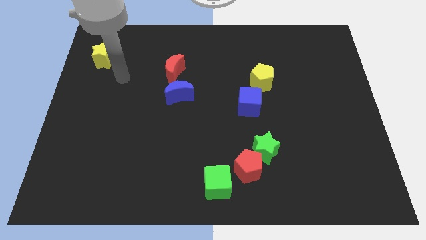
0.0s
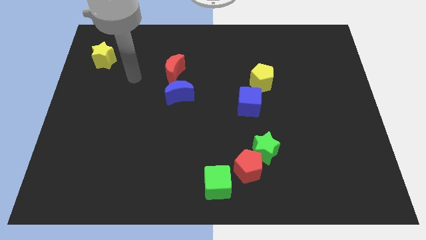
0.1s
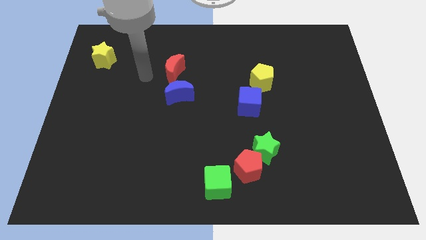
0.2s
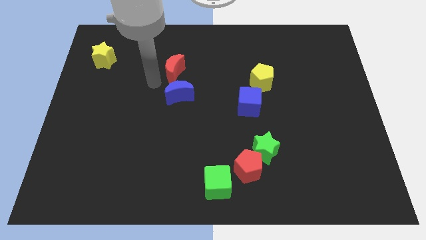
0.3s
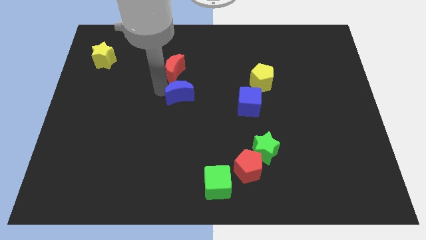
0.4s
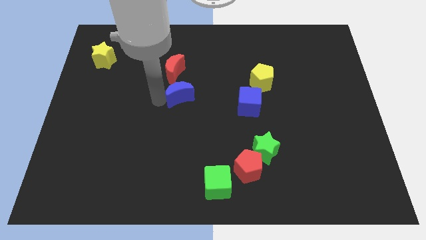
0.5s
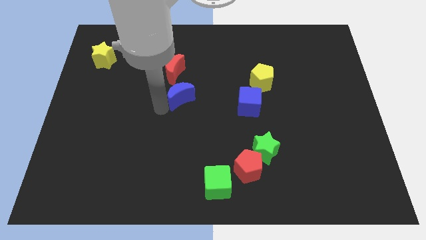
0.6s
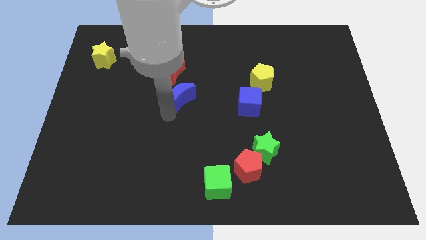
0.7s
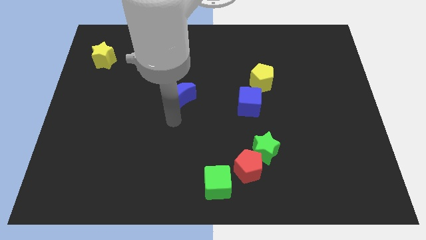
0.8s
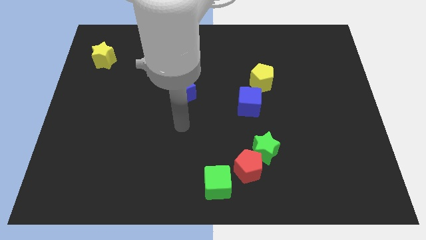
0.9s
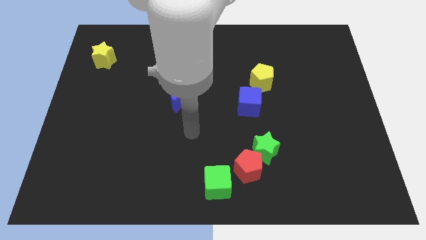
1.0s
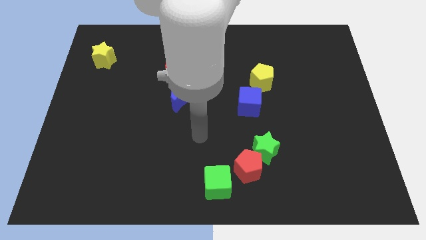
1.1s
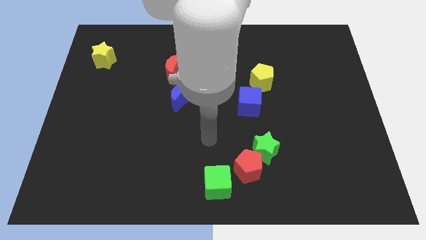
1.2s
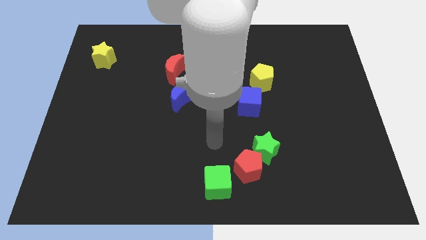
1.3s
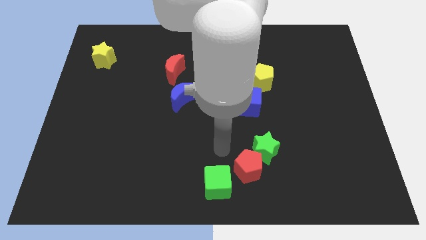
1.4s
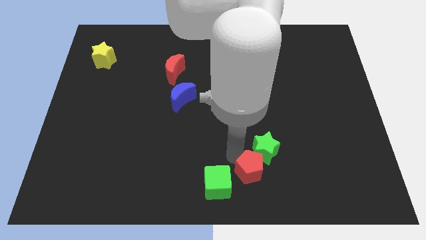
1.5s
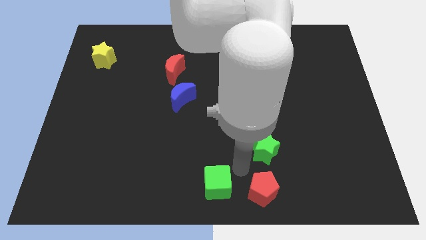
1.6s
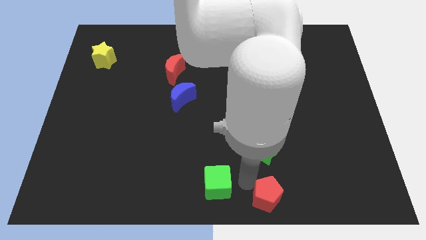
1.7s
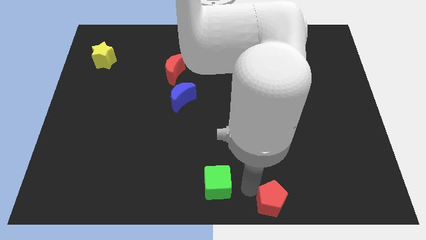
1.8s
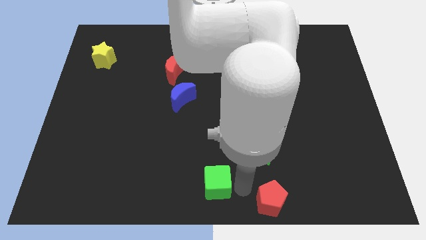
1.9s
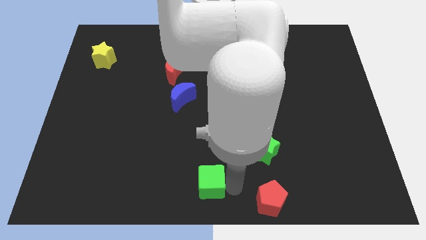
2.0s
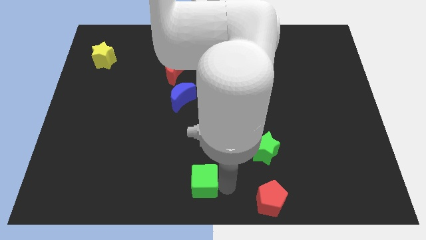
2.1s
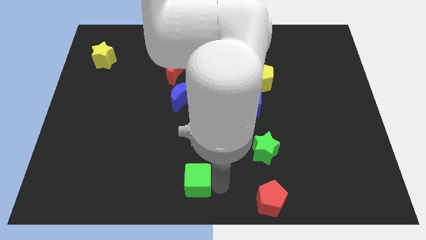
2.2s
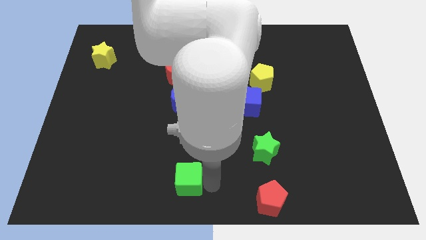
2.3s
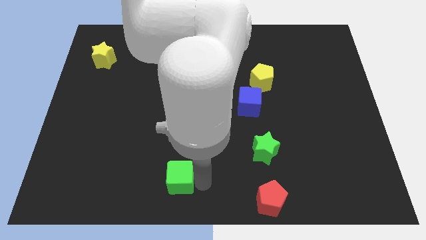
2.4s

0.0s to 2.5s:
slide the green cube somewhat left

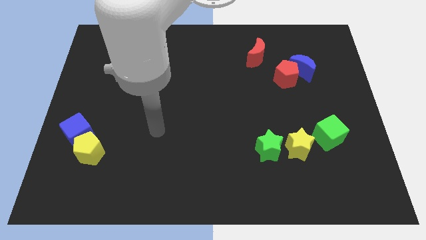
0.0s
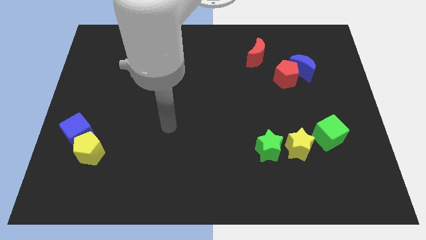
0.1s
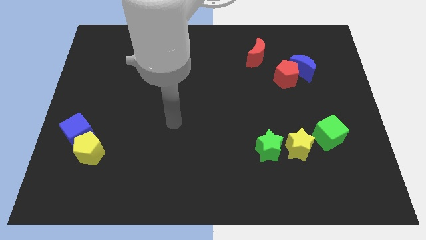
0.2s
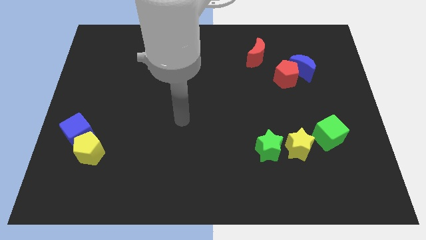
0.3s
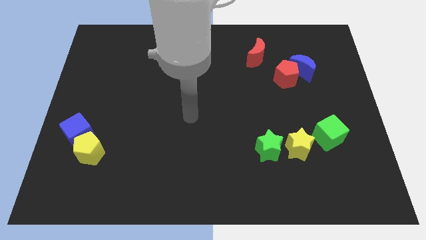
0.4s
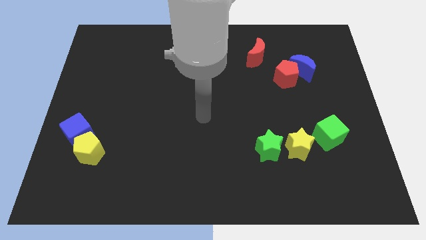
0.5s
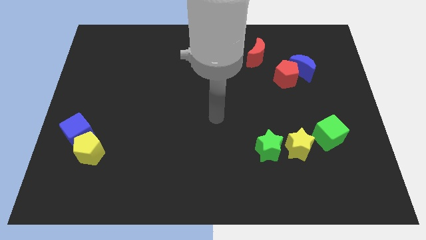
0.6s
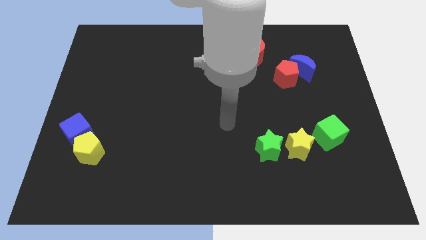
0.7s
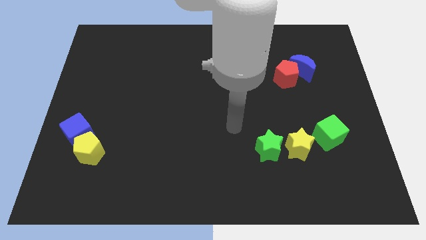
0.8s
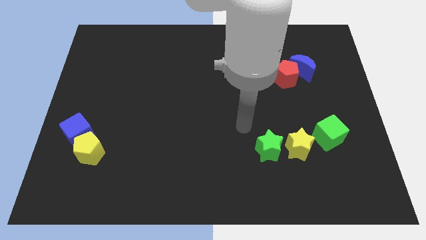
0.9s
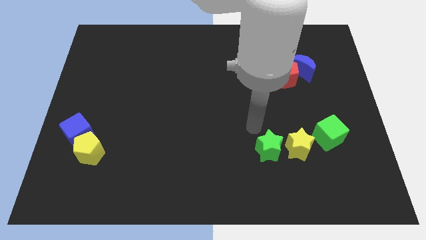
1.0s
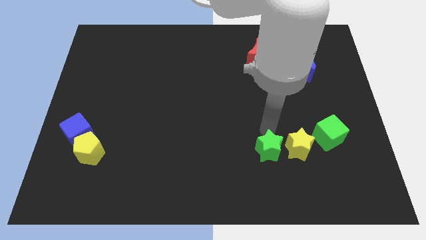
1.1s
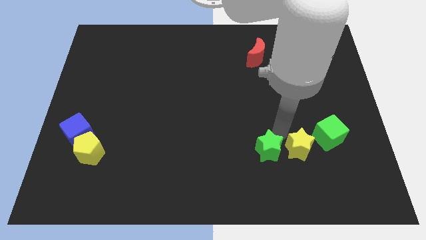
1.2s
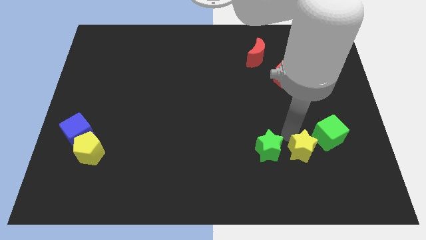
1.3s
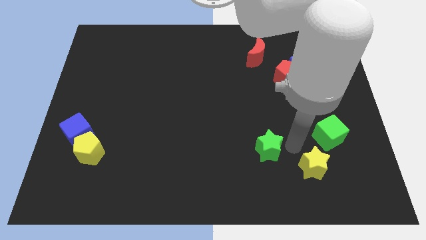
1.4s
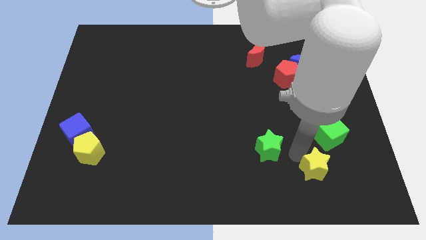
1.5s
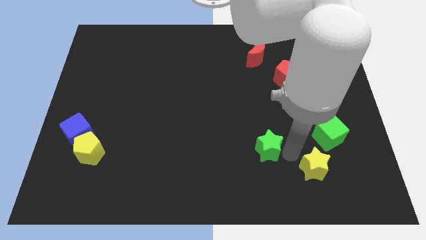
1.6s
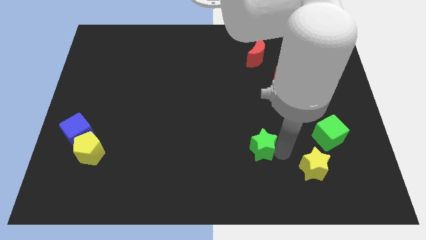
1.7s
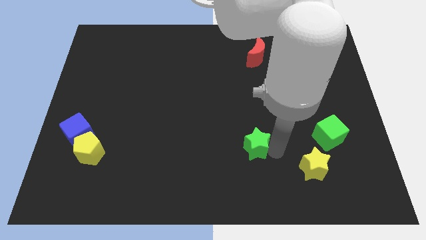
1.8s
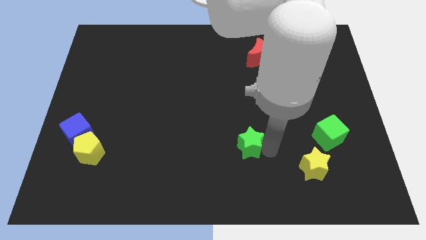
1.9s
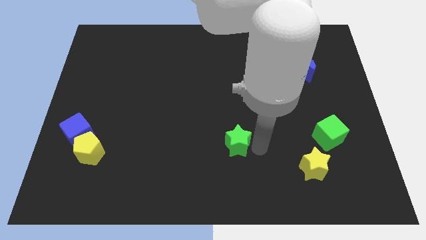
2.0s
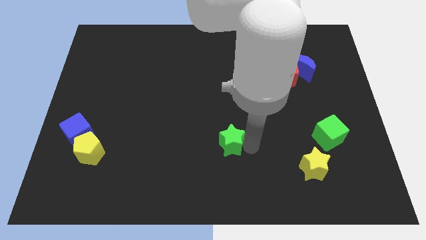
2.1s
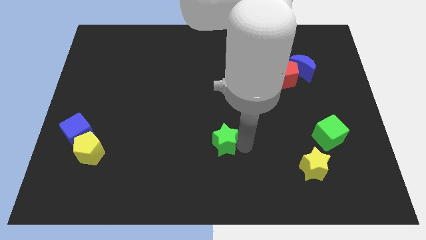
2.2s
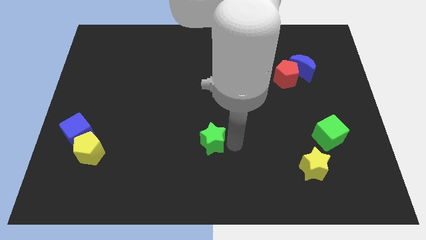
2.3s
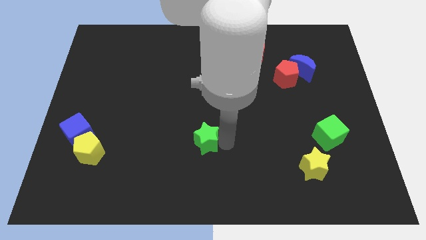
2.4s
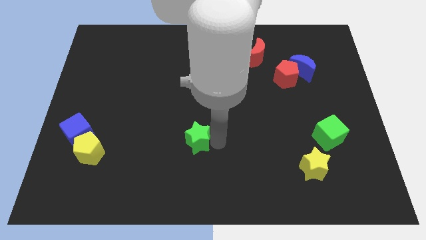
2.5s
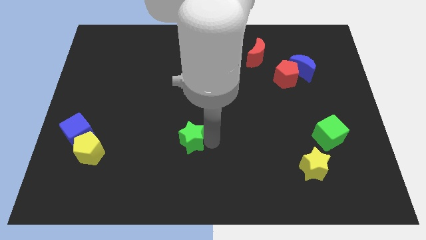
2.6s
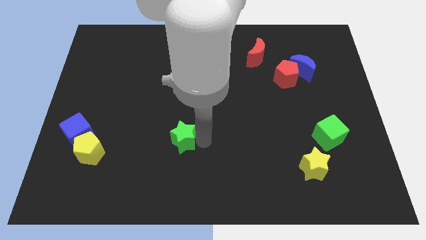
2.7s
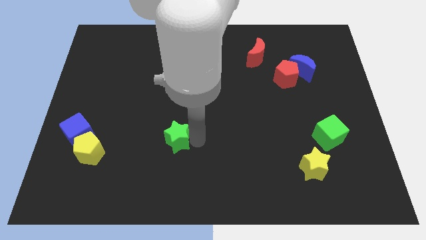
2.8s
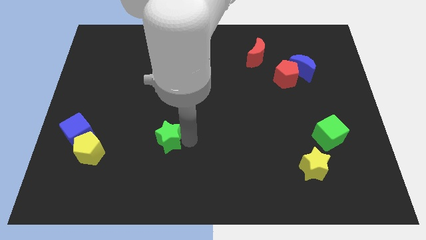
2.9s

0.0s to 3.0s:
push the green star to the left

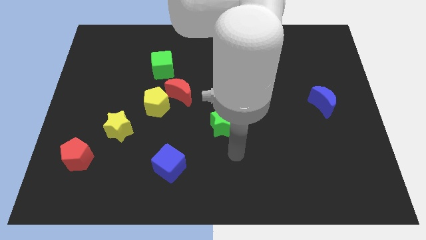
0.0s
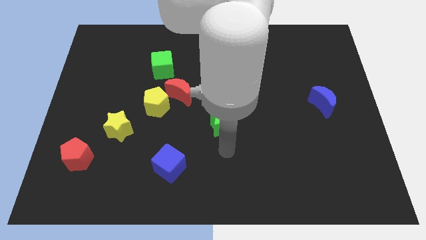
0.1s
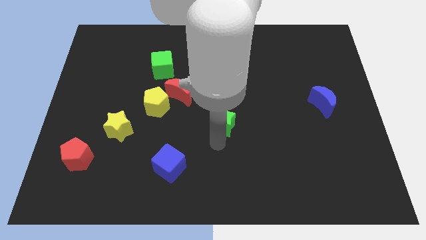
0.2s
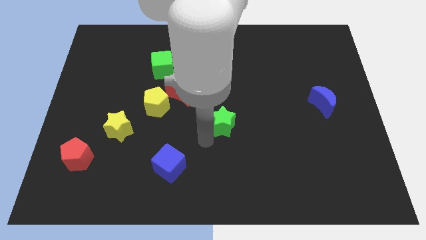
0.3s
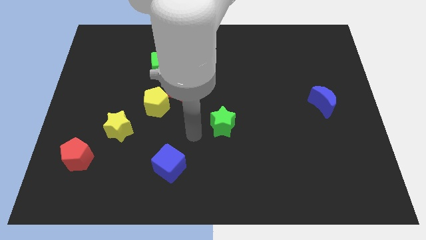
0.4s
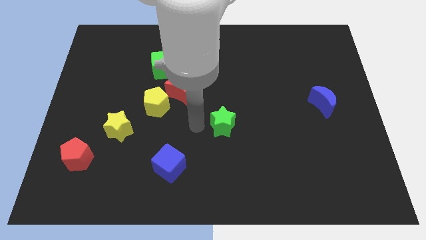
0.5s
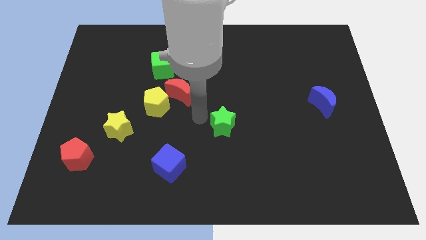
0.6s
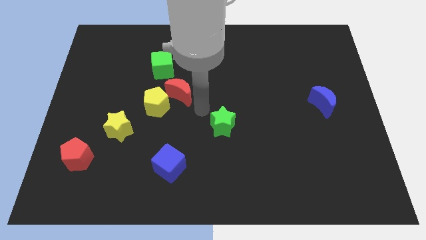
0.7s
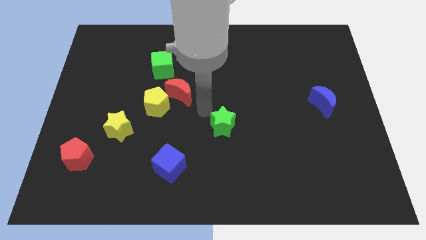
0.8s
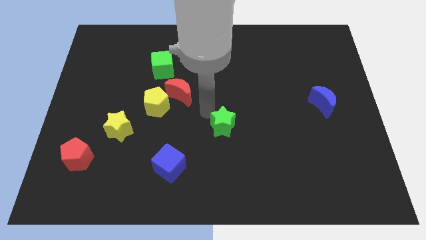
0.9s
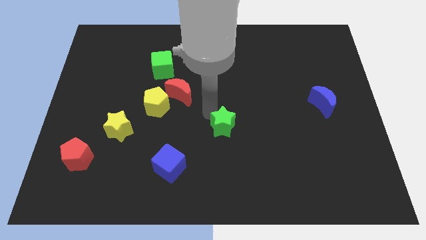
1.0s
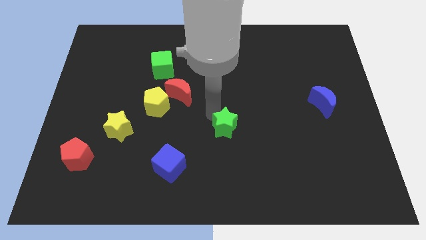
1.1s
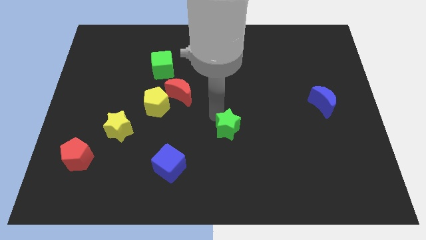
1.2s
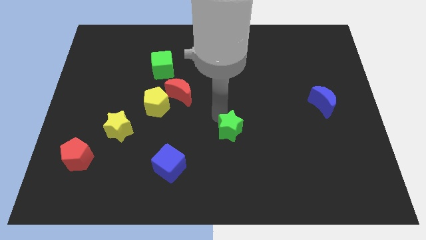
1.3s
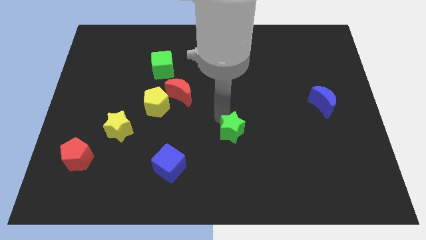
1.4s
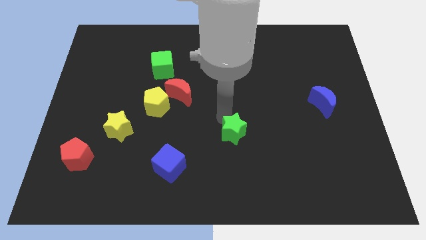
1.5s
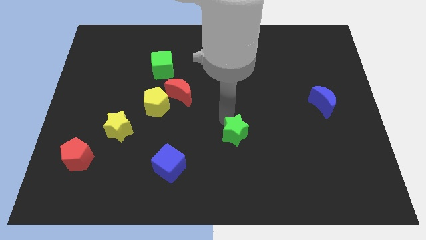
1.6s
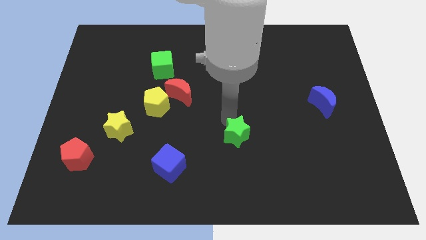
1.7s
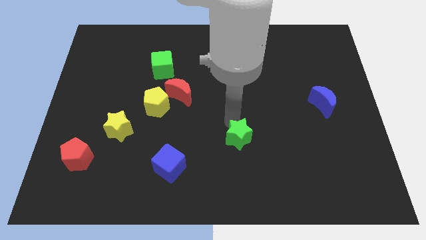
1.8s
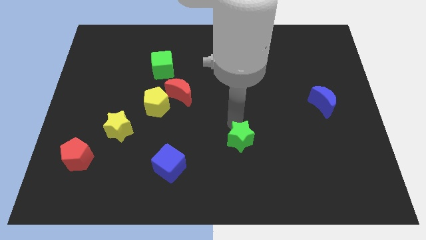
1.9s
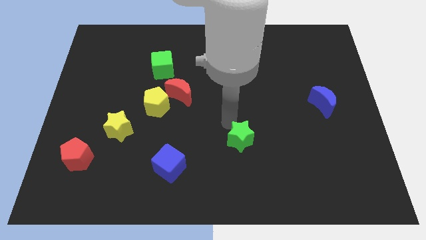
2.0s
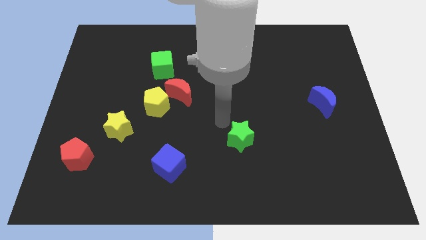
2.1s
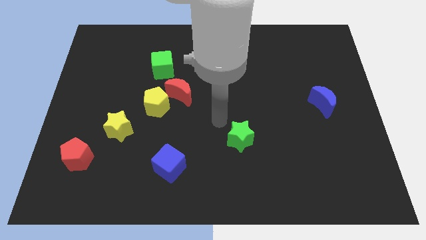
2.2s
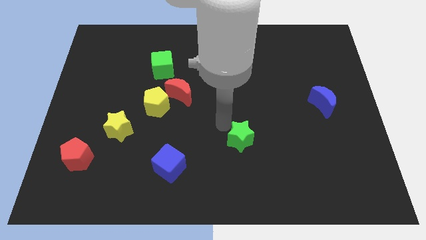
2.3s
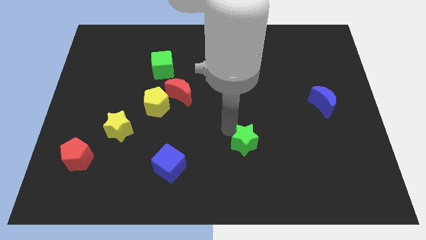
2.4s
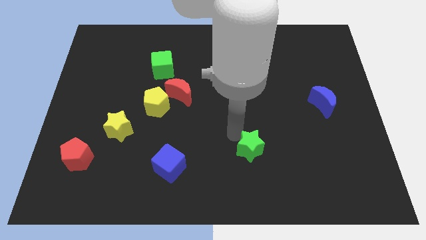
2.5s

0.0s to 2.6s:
push the green star downwards and then to the right a bit

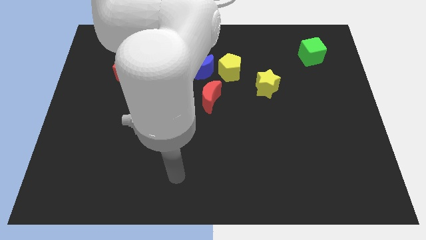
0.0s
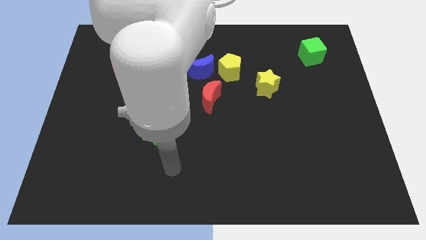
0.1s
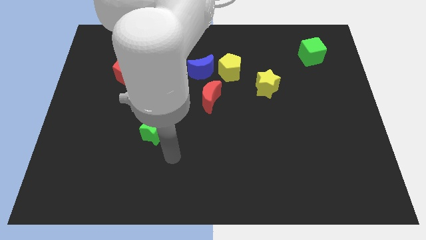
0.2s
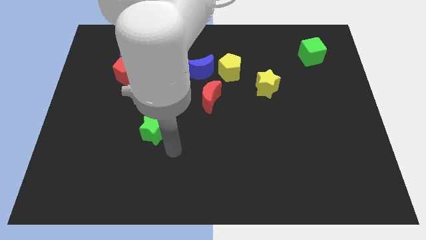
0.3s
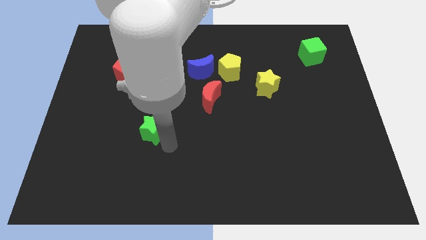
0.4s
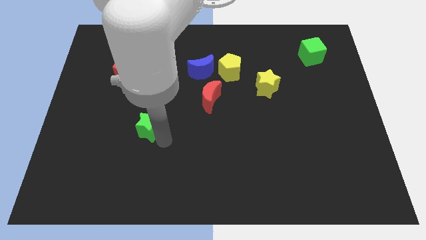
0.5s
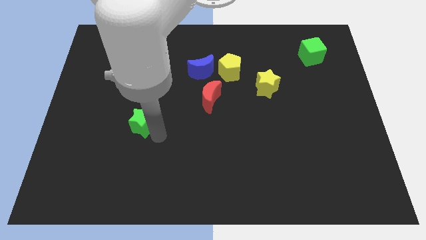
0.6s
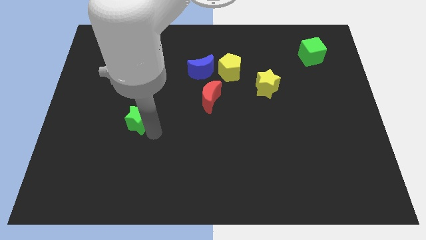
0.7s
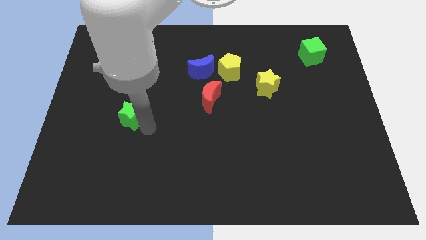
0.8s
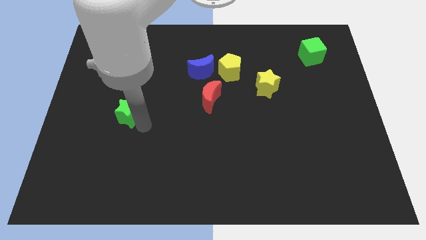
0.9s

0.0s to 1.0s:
slide the green star a bit up and then to the left
